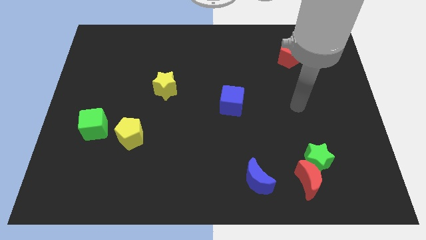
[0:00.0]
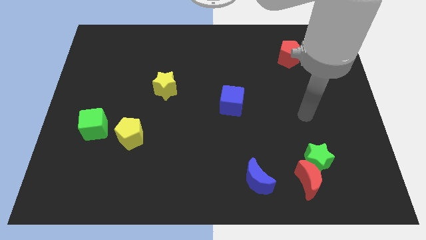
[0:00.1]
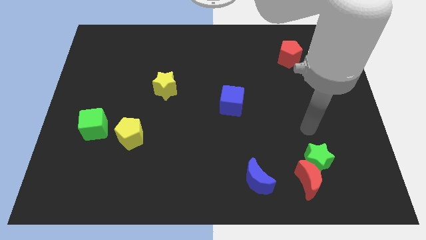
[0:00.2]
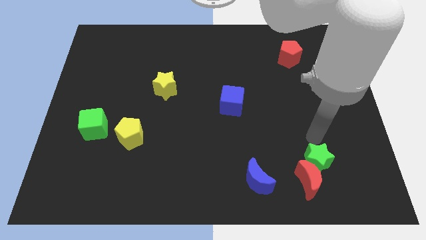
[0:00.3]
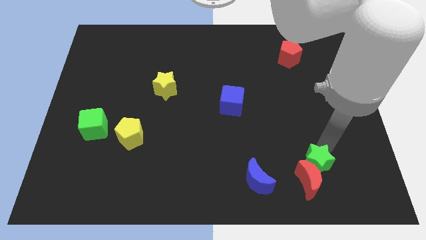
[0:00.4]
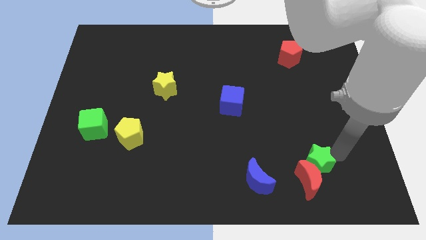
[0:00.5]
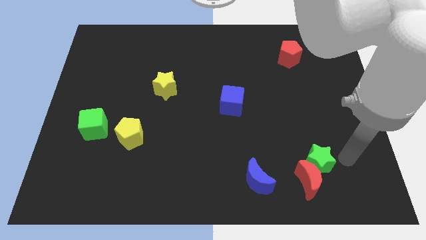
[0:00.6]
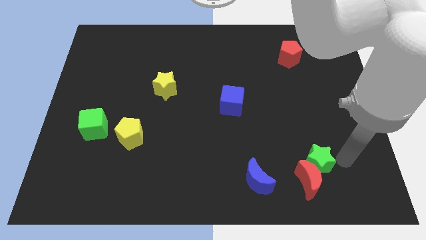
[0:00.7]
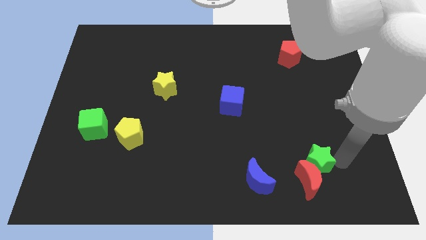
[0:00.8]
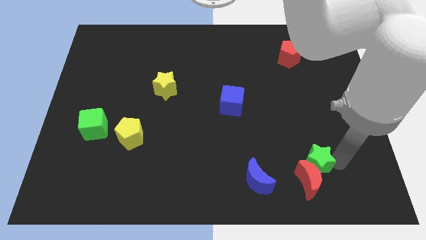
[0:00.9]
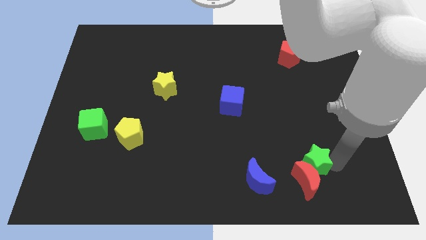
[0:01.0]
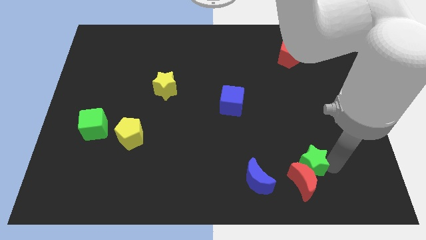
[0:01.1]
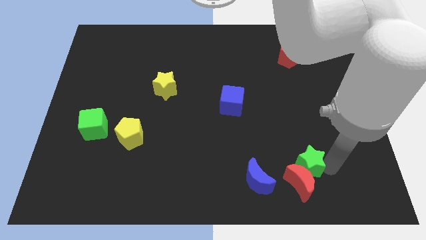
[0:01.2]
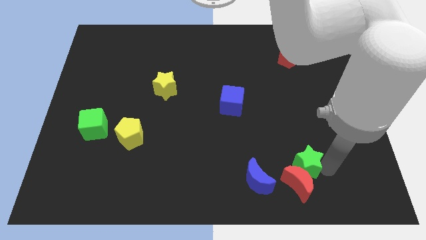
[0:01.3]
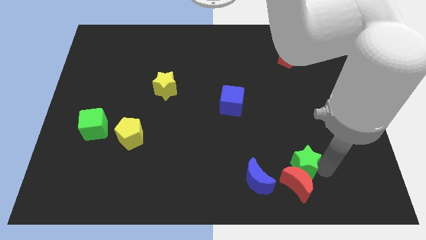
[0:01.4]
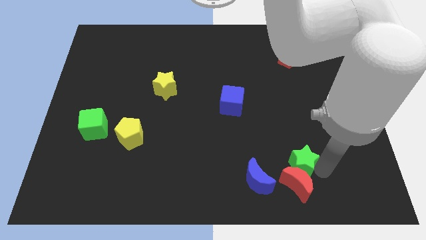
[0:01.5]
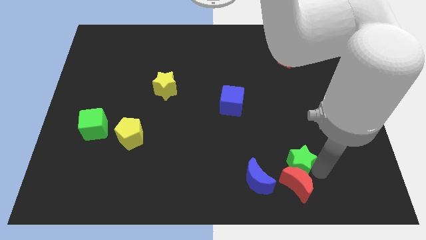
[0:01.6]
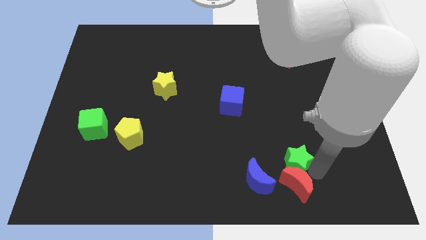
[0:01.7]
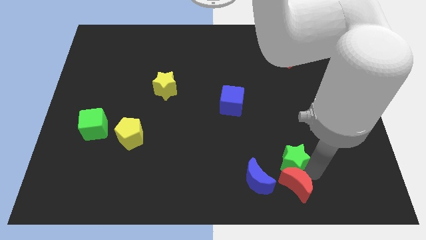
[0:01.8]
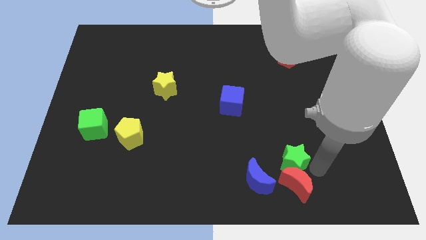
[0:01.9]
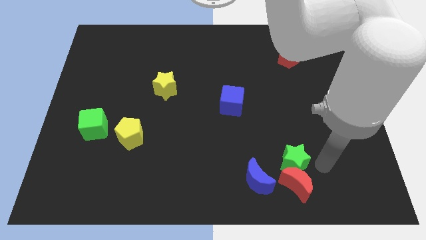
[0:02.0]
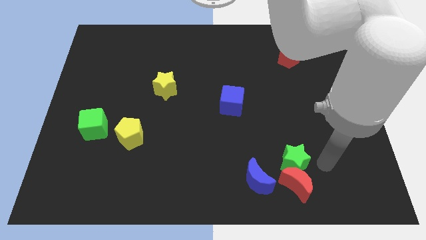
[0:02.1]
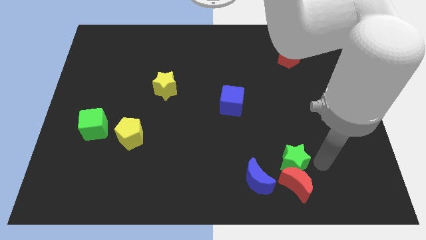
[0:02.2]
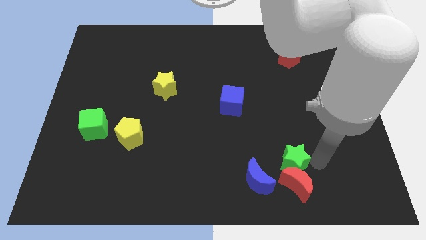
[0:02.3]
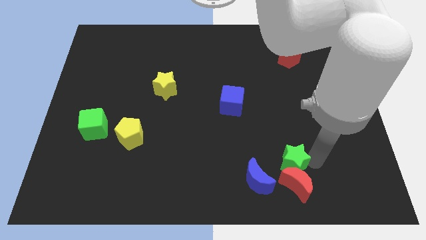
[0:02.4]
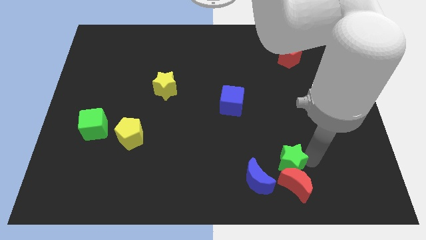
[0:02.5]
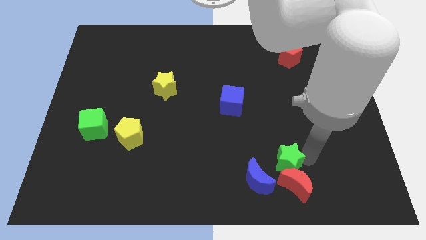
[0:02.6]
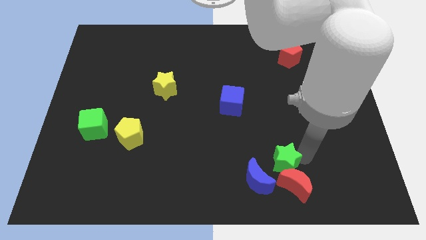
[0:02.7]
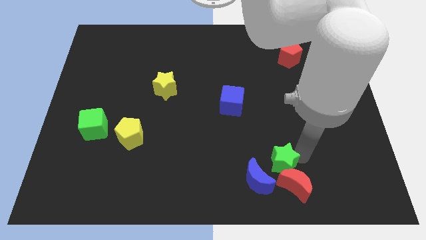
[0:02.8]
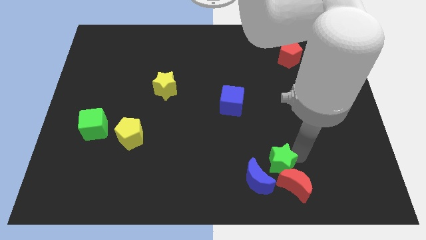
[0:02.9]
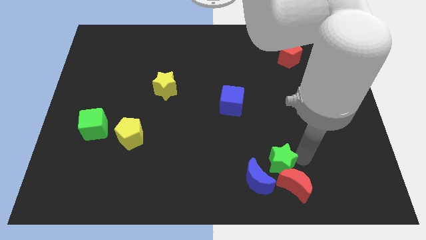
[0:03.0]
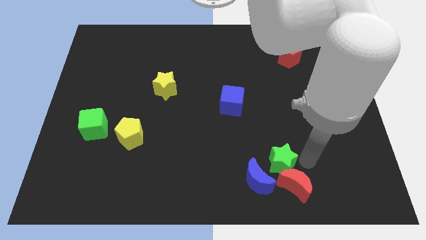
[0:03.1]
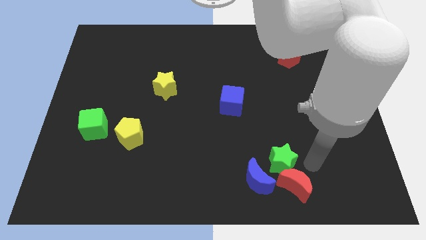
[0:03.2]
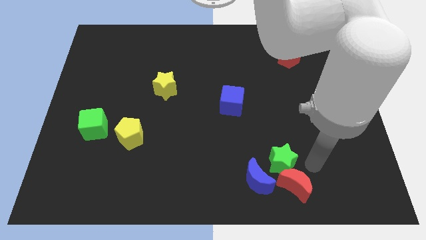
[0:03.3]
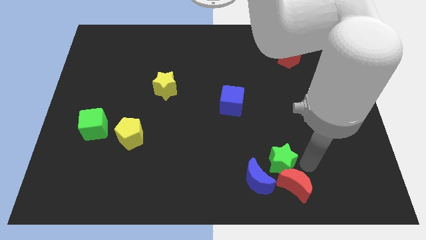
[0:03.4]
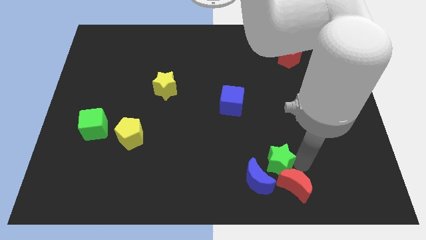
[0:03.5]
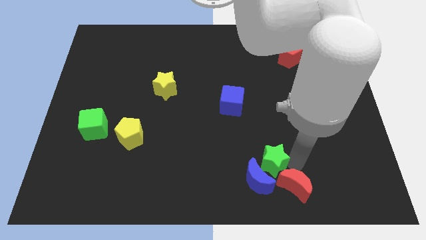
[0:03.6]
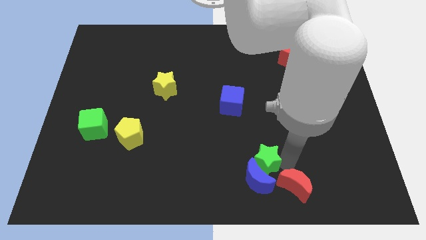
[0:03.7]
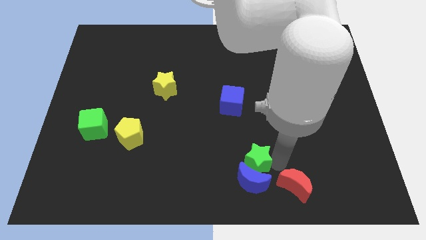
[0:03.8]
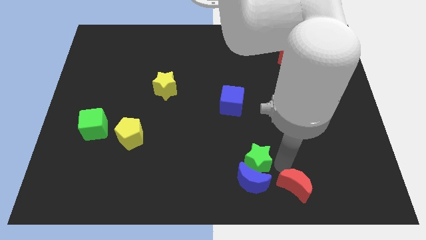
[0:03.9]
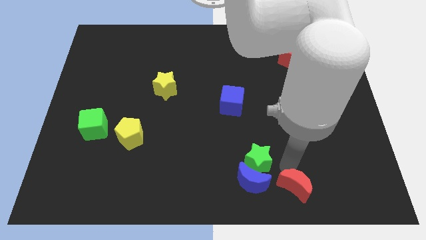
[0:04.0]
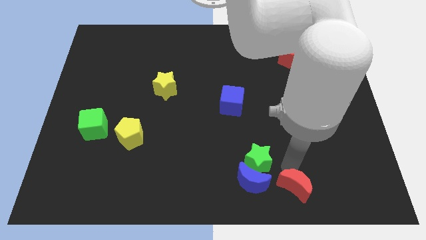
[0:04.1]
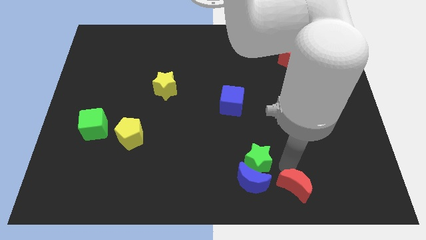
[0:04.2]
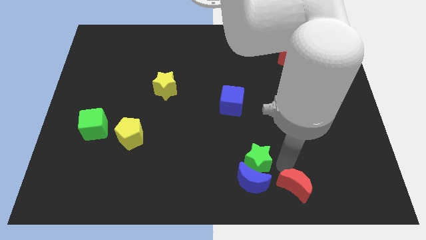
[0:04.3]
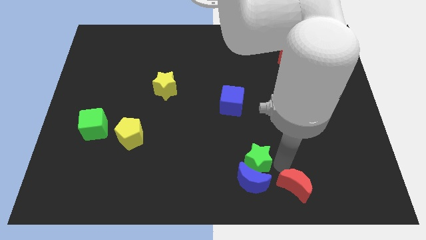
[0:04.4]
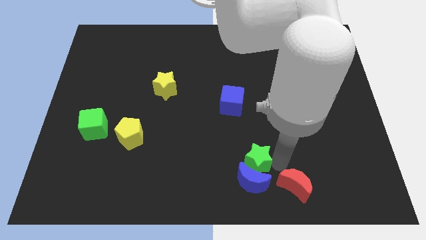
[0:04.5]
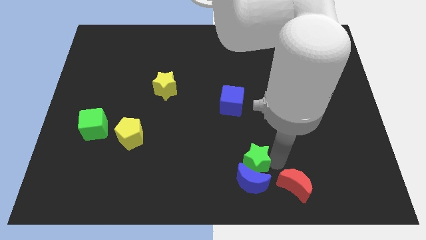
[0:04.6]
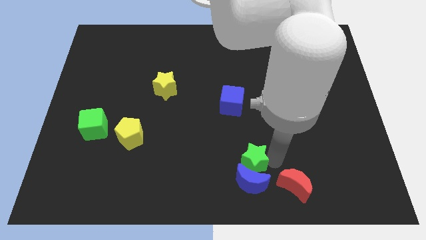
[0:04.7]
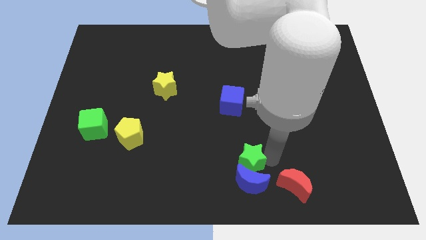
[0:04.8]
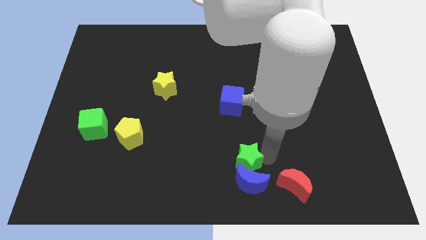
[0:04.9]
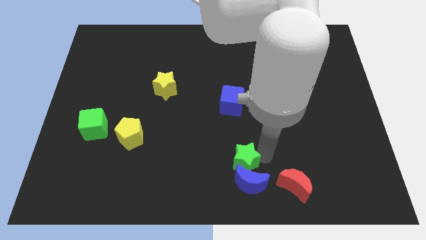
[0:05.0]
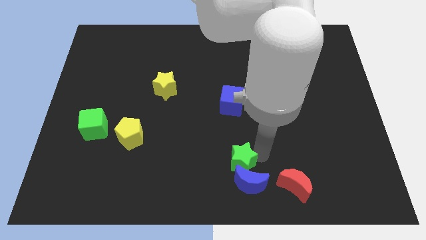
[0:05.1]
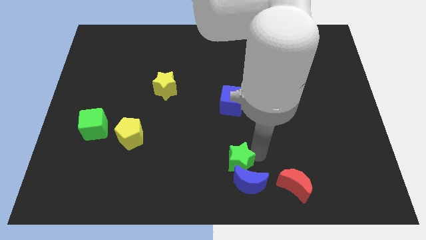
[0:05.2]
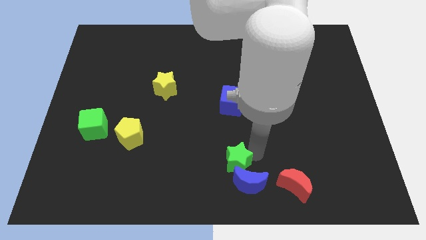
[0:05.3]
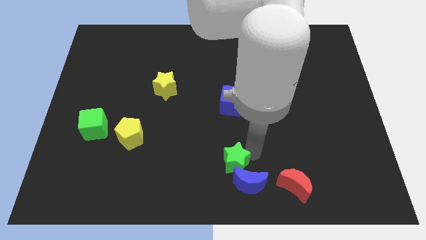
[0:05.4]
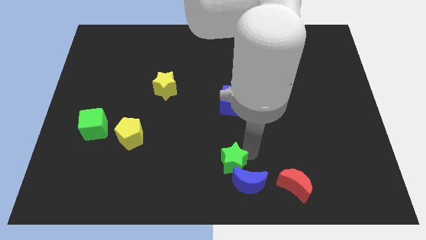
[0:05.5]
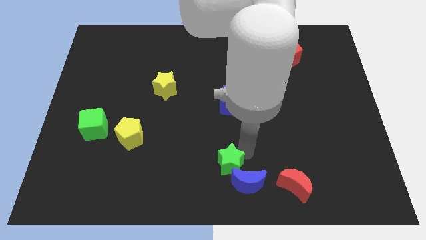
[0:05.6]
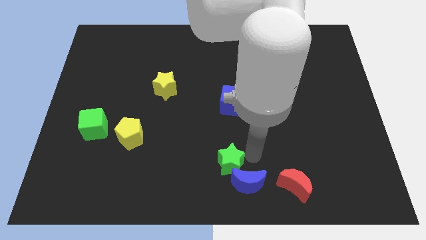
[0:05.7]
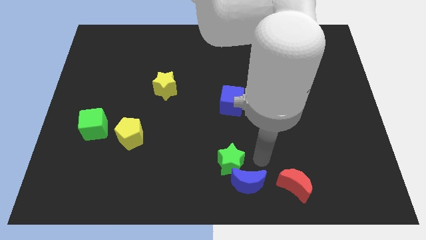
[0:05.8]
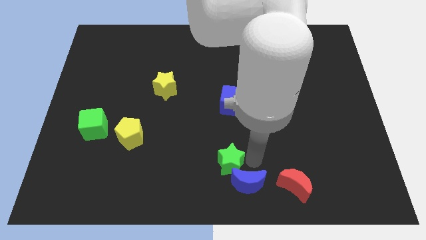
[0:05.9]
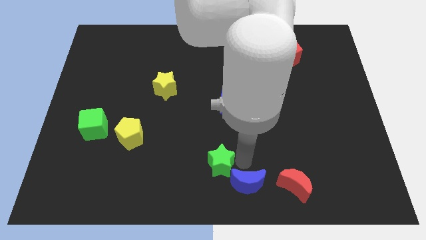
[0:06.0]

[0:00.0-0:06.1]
slide the green star left

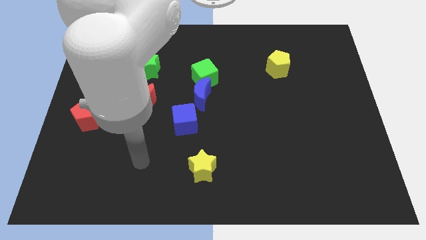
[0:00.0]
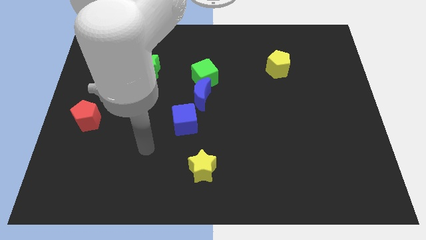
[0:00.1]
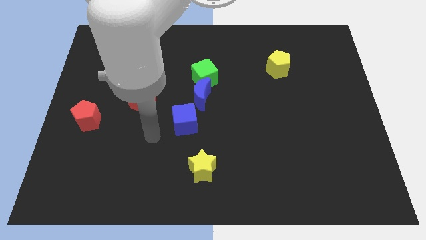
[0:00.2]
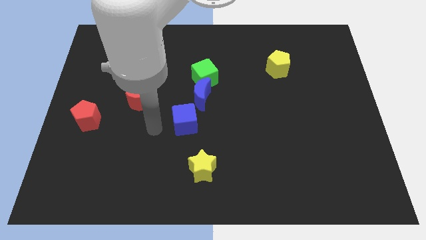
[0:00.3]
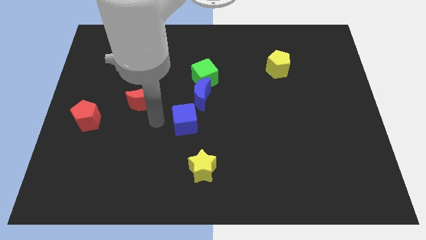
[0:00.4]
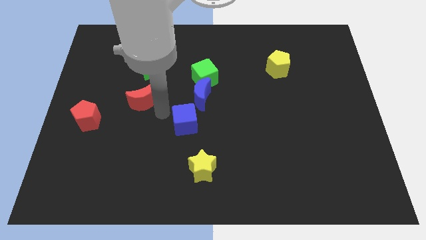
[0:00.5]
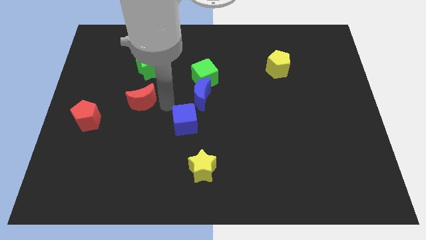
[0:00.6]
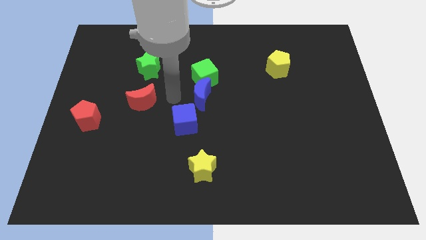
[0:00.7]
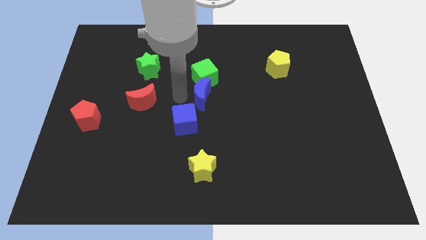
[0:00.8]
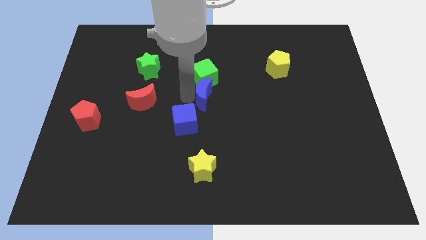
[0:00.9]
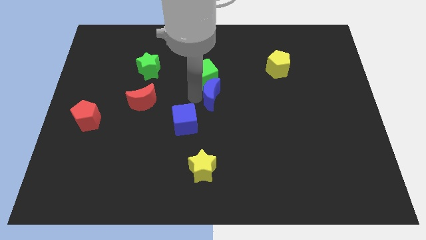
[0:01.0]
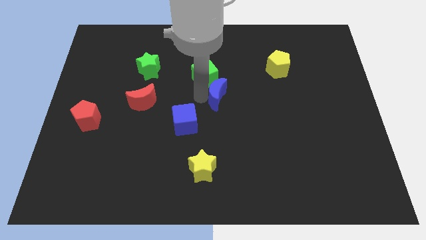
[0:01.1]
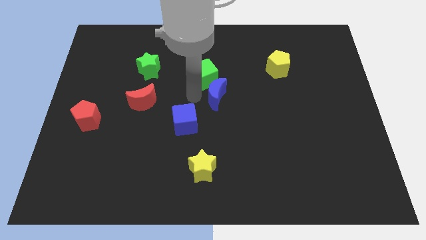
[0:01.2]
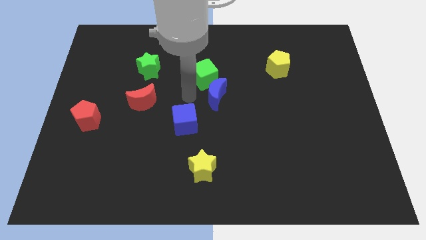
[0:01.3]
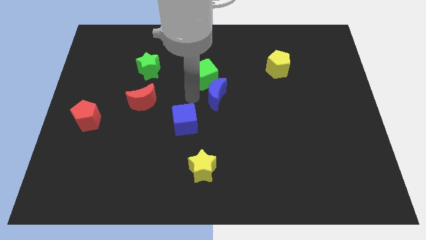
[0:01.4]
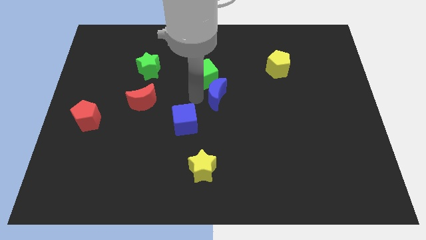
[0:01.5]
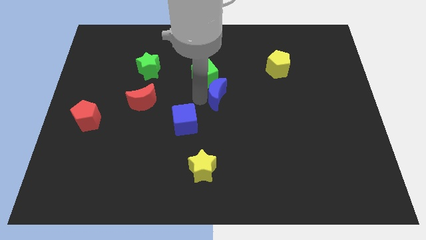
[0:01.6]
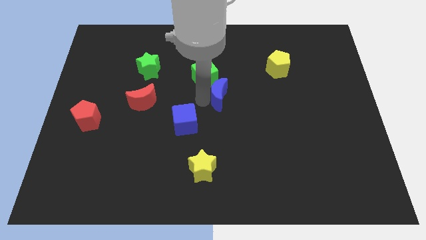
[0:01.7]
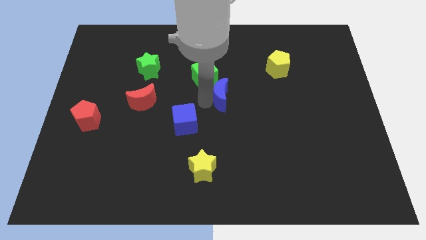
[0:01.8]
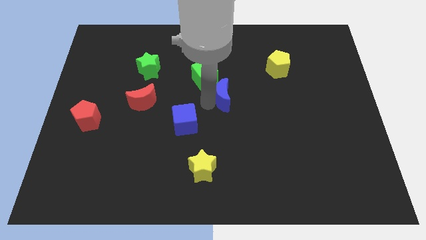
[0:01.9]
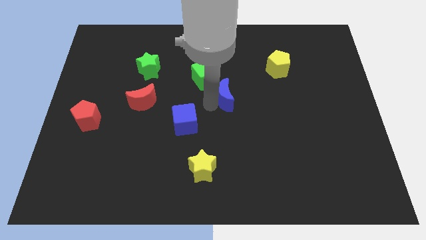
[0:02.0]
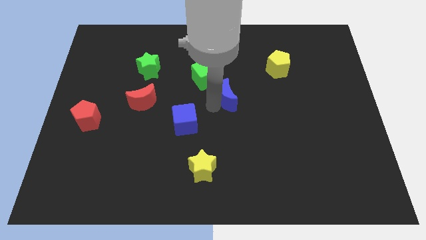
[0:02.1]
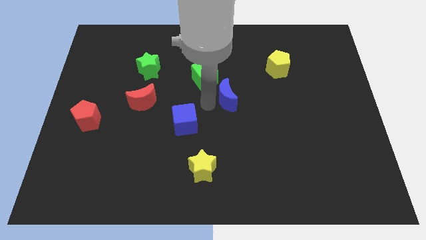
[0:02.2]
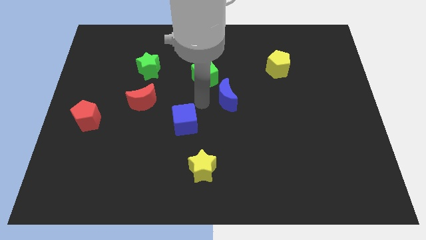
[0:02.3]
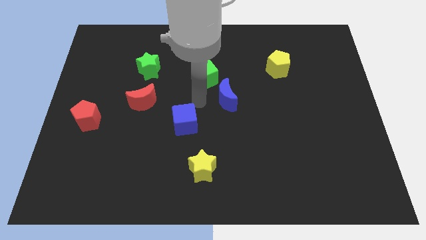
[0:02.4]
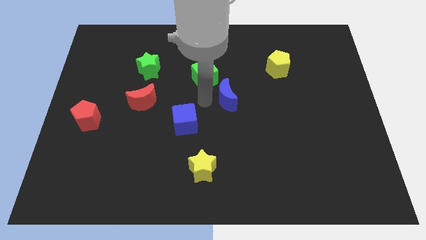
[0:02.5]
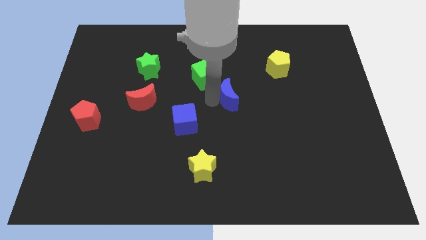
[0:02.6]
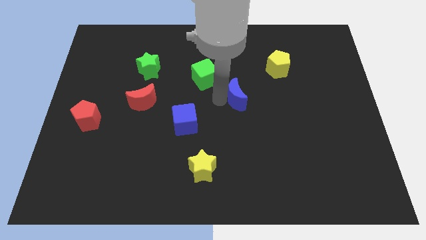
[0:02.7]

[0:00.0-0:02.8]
move the blue moon slightly to the right

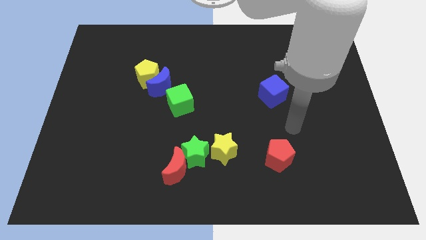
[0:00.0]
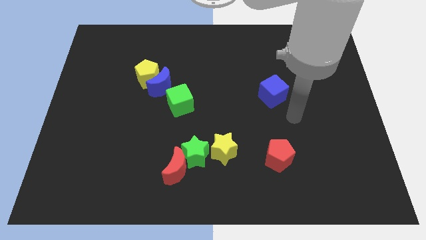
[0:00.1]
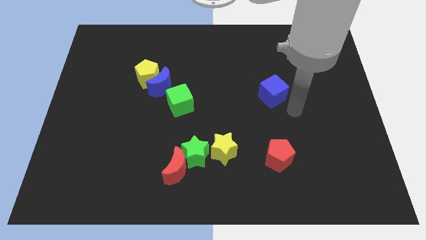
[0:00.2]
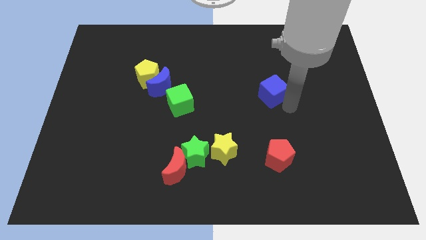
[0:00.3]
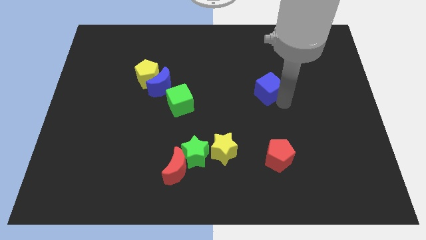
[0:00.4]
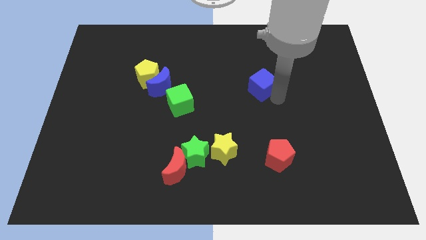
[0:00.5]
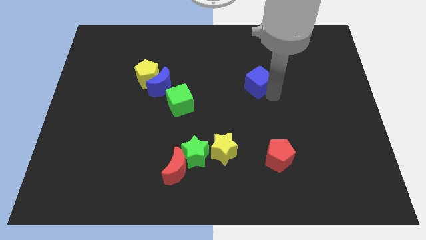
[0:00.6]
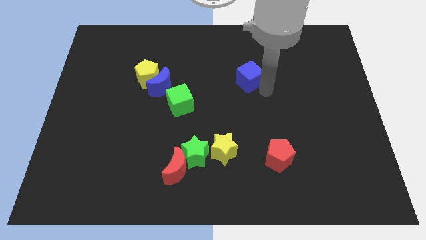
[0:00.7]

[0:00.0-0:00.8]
push the blue cube slightly up and to the left
